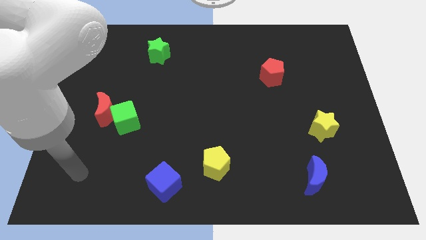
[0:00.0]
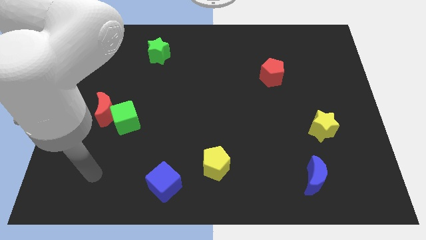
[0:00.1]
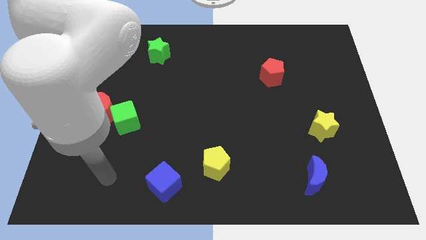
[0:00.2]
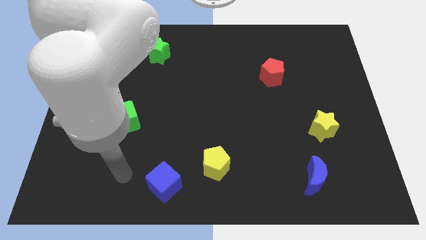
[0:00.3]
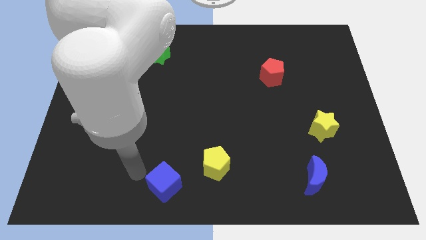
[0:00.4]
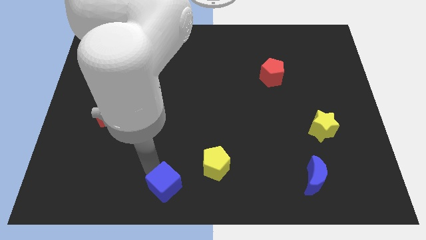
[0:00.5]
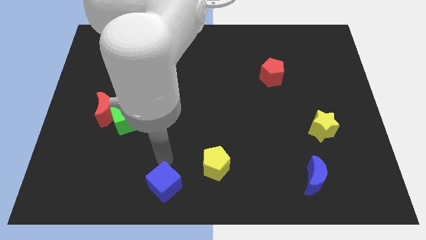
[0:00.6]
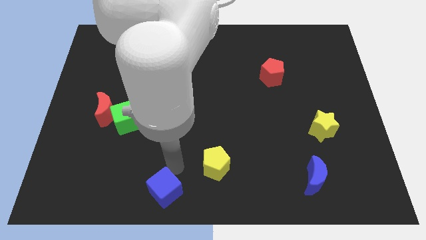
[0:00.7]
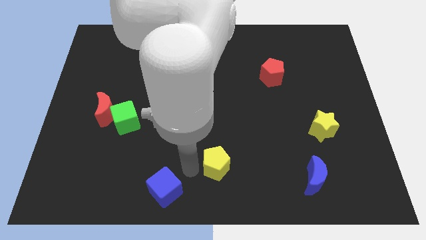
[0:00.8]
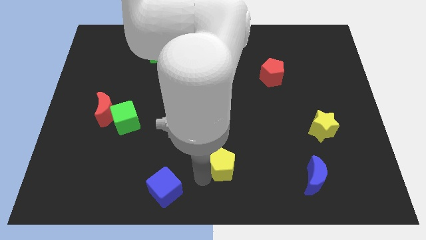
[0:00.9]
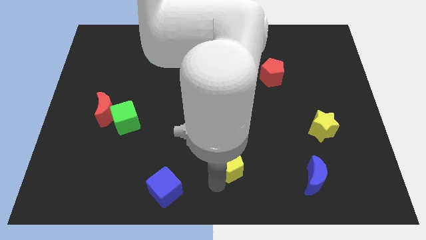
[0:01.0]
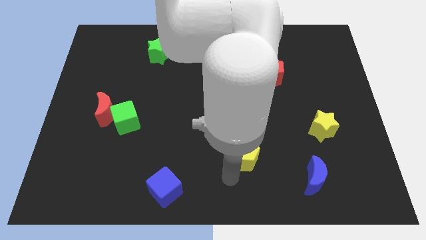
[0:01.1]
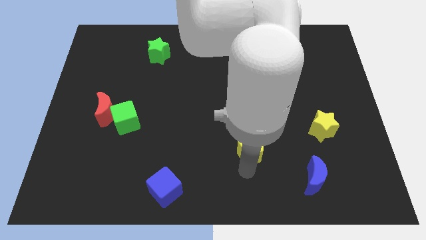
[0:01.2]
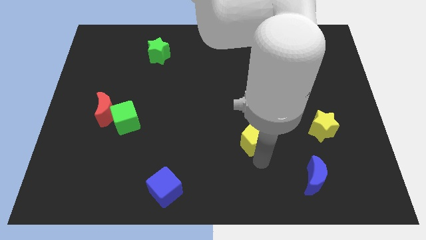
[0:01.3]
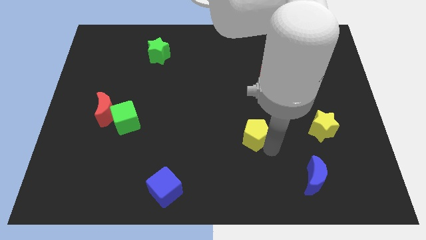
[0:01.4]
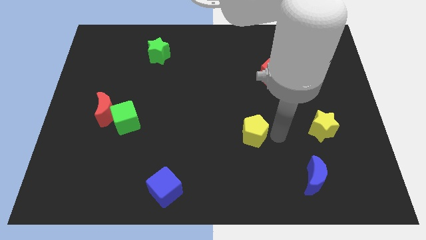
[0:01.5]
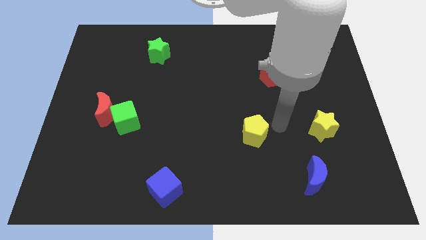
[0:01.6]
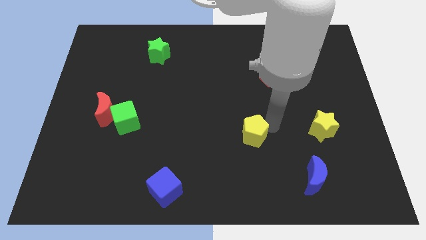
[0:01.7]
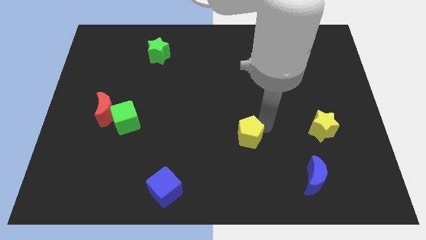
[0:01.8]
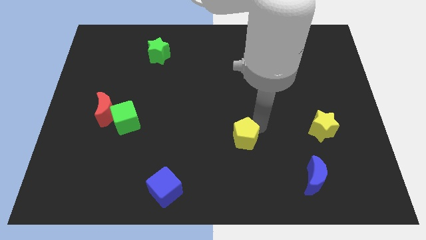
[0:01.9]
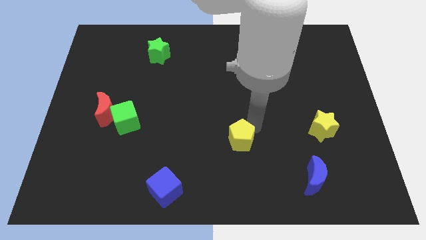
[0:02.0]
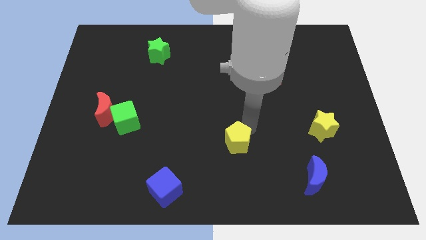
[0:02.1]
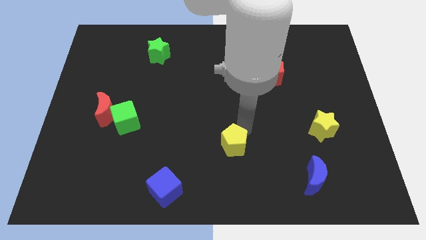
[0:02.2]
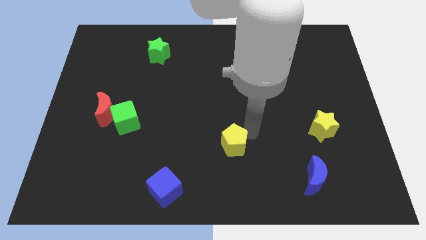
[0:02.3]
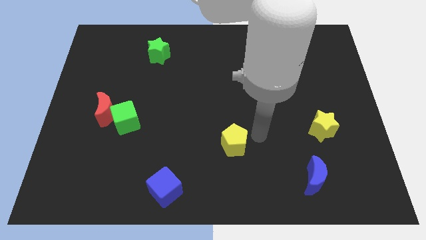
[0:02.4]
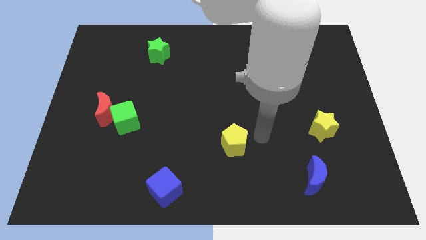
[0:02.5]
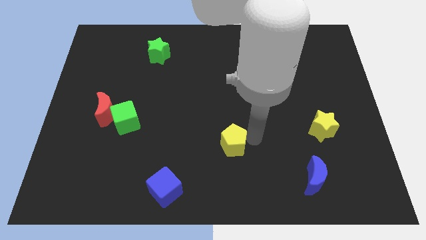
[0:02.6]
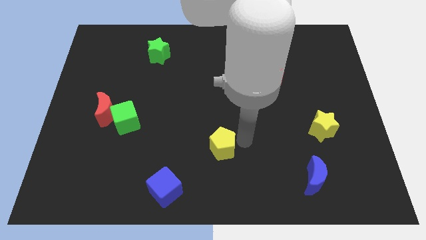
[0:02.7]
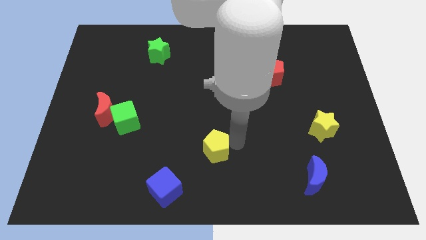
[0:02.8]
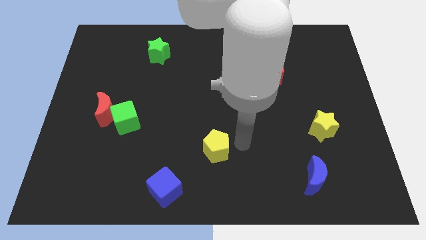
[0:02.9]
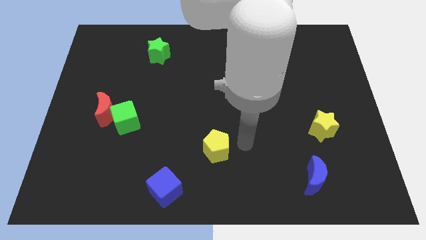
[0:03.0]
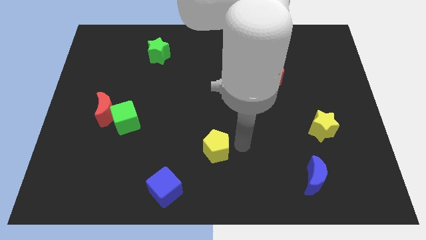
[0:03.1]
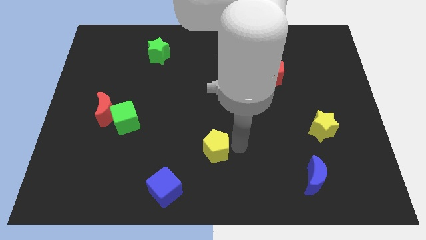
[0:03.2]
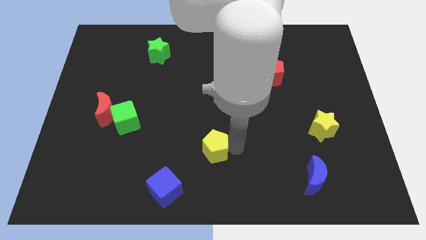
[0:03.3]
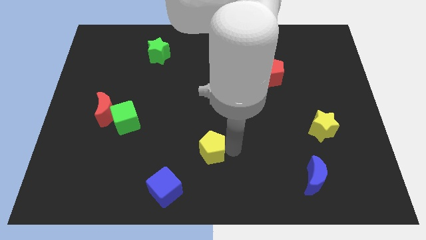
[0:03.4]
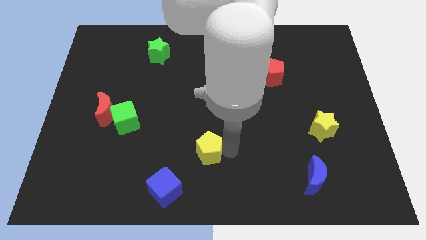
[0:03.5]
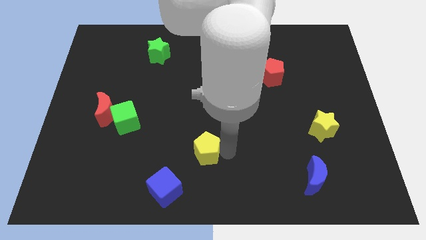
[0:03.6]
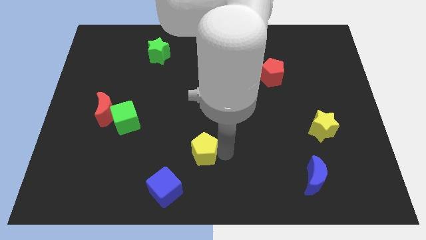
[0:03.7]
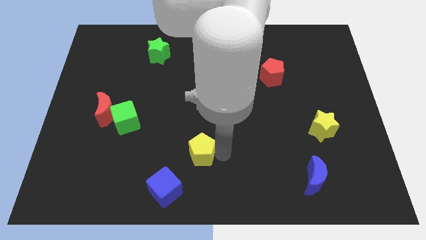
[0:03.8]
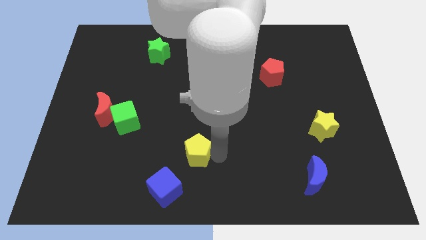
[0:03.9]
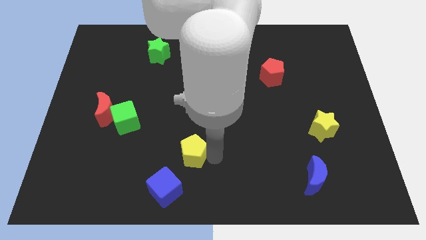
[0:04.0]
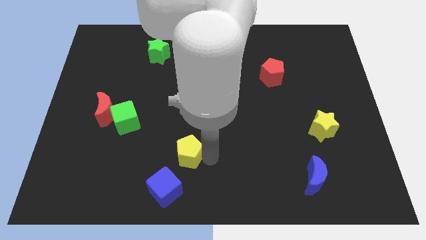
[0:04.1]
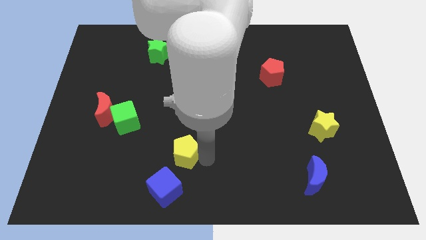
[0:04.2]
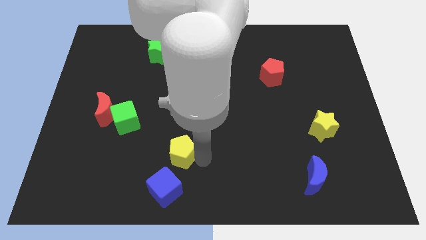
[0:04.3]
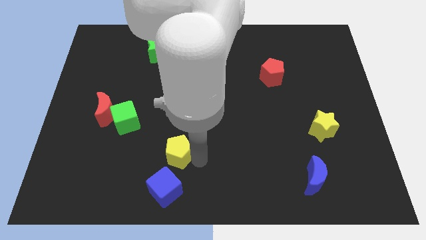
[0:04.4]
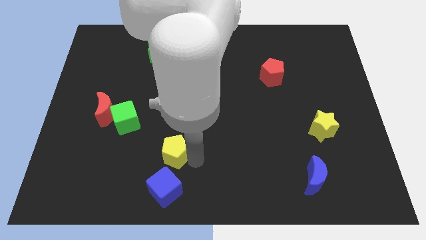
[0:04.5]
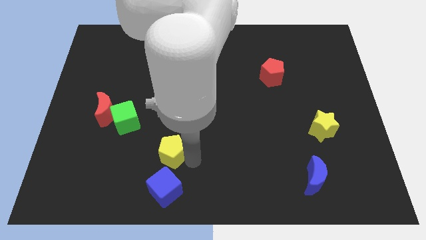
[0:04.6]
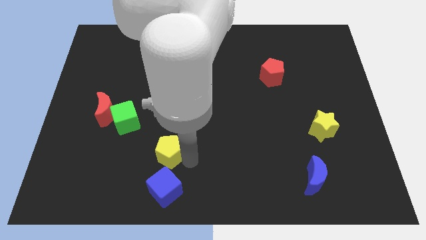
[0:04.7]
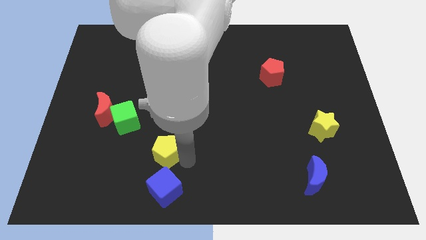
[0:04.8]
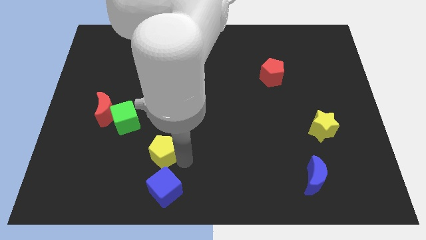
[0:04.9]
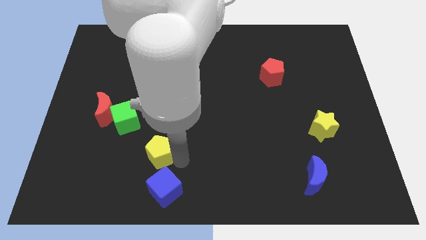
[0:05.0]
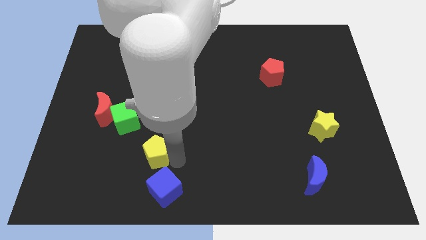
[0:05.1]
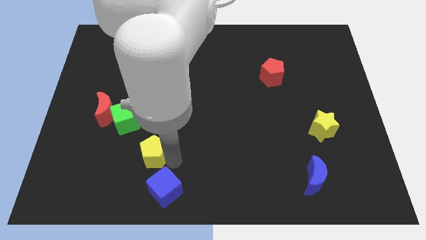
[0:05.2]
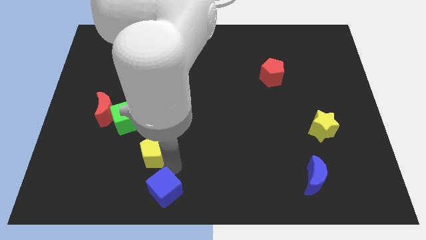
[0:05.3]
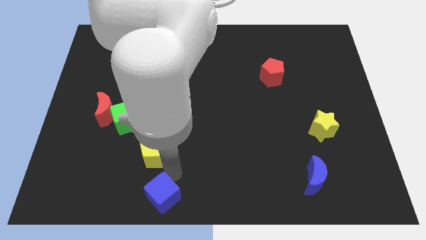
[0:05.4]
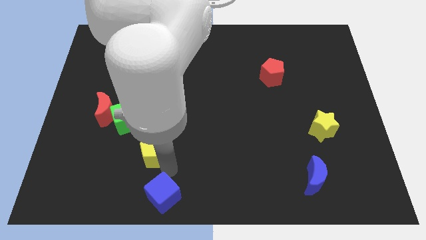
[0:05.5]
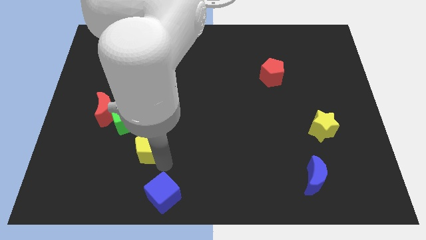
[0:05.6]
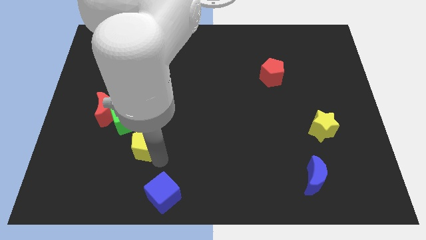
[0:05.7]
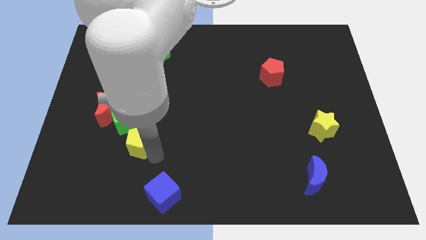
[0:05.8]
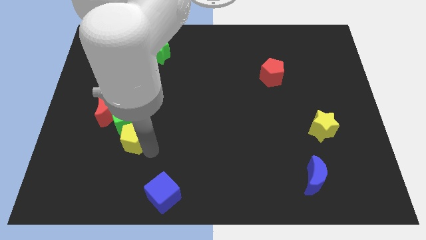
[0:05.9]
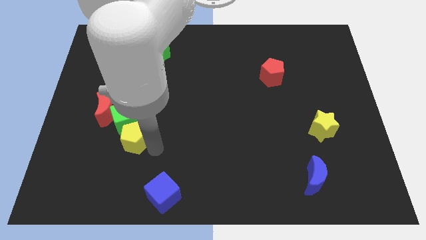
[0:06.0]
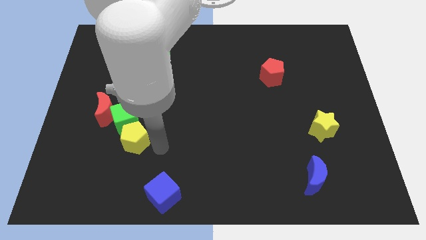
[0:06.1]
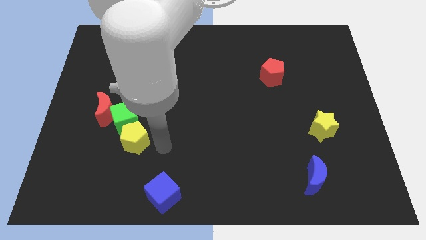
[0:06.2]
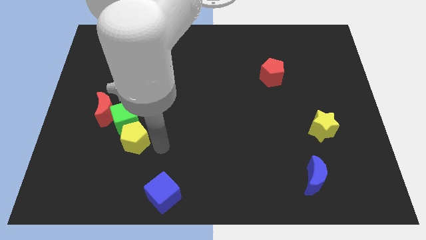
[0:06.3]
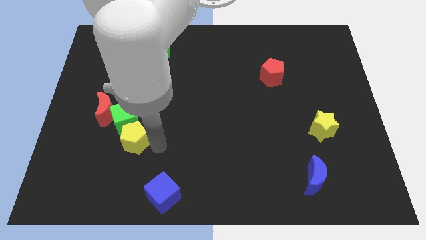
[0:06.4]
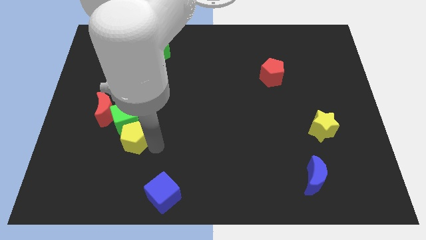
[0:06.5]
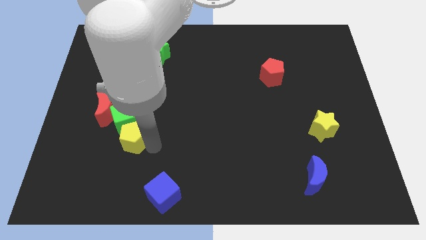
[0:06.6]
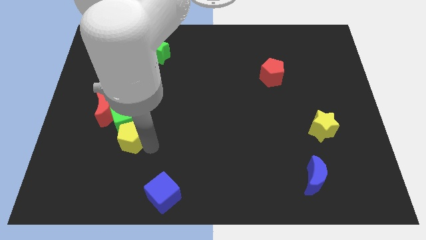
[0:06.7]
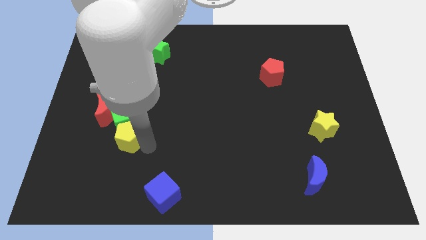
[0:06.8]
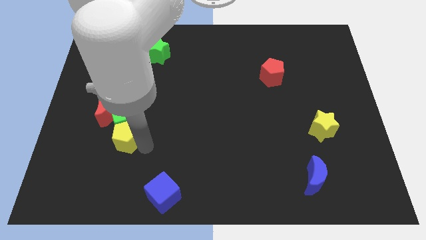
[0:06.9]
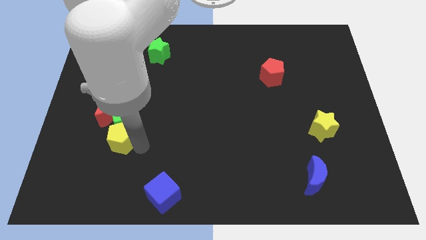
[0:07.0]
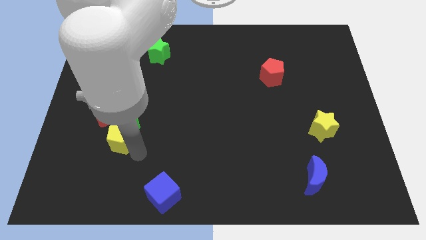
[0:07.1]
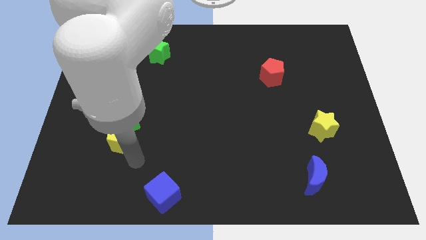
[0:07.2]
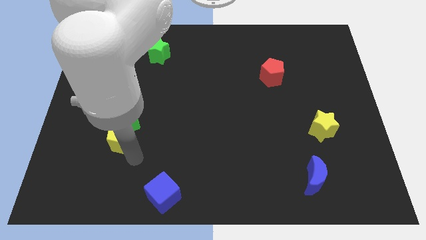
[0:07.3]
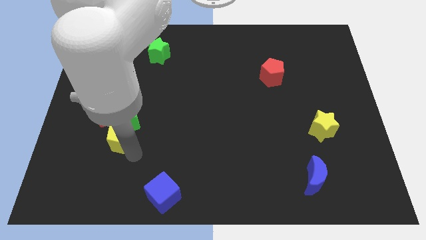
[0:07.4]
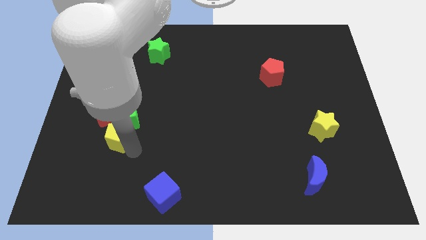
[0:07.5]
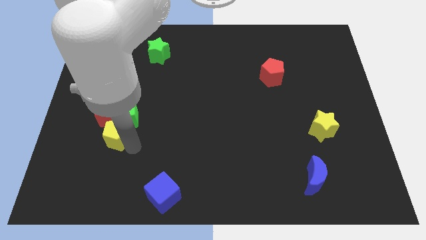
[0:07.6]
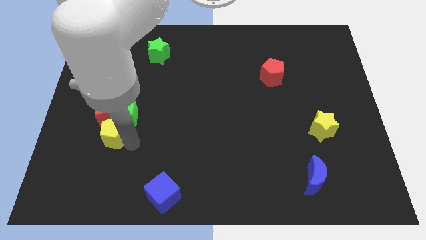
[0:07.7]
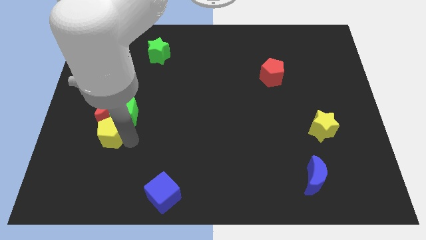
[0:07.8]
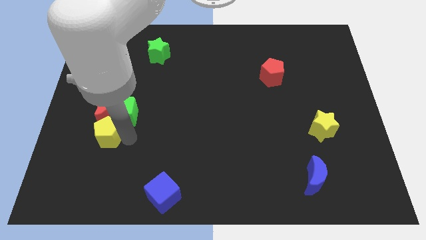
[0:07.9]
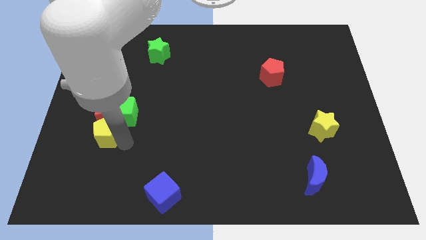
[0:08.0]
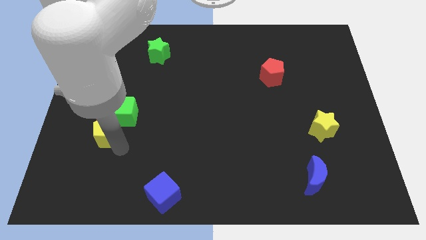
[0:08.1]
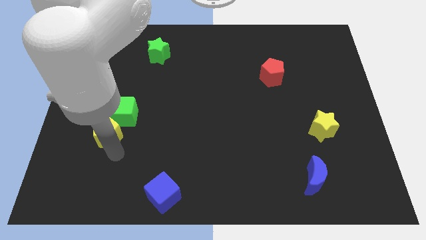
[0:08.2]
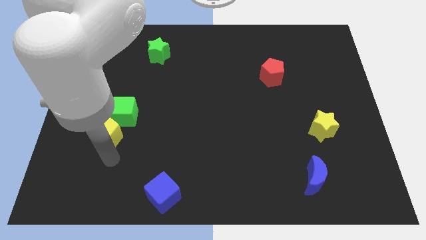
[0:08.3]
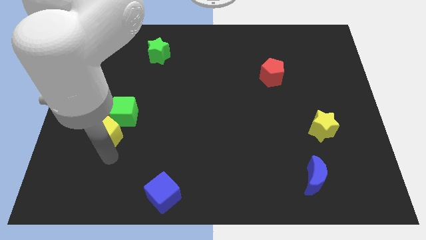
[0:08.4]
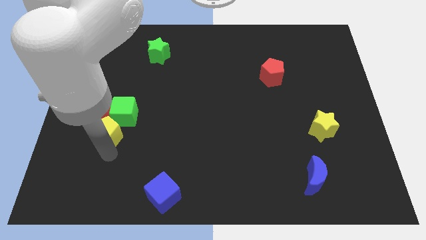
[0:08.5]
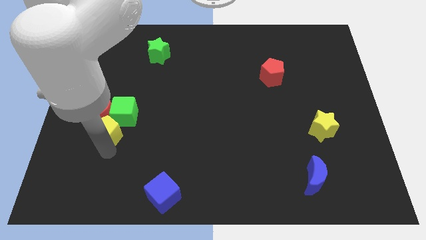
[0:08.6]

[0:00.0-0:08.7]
slide the yellow pentagon next to the red moon
